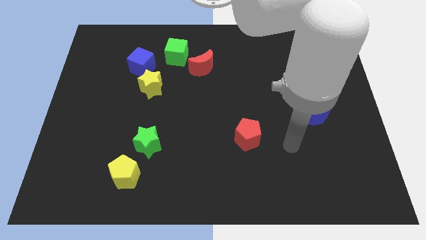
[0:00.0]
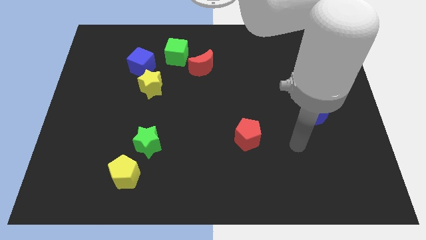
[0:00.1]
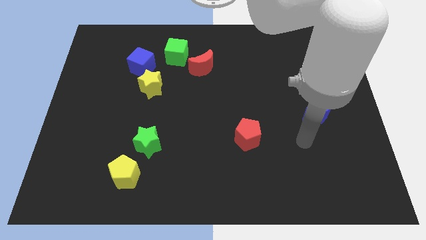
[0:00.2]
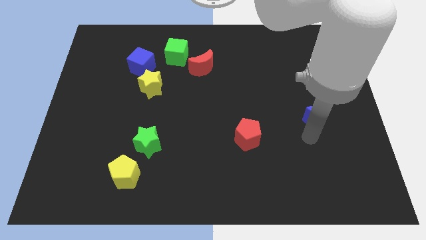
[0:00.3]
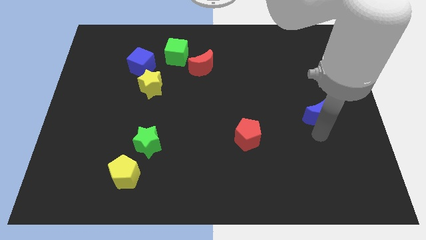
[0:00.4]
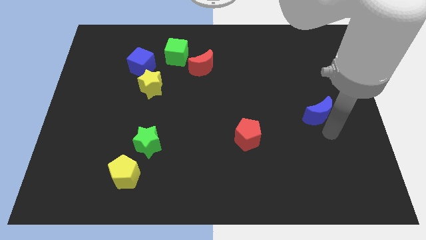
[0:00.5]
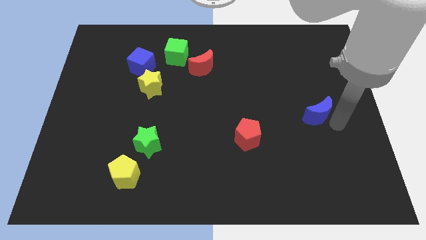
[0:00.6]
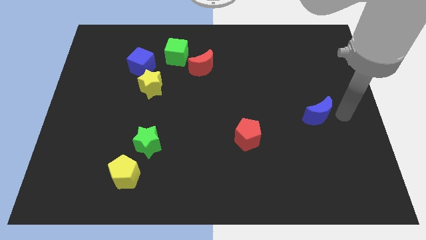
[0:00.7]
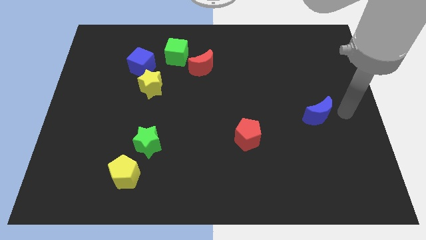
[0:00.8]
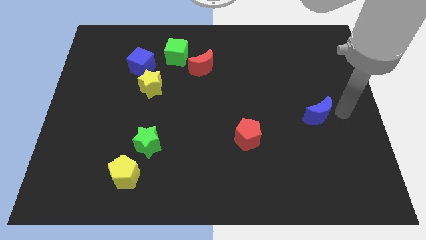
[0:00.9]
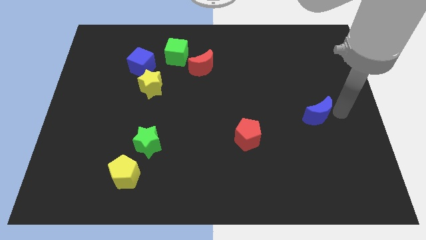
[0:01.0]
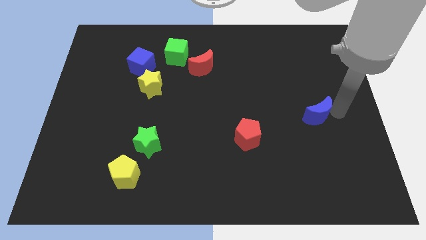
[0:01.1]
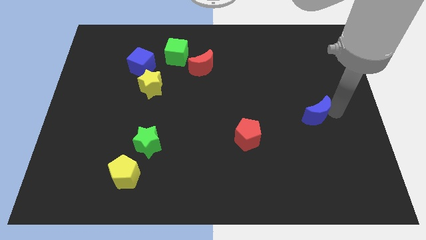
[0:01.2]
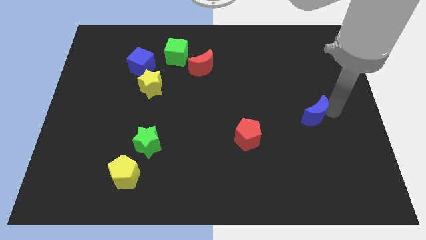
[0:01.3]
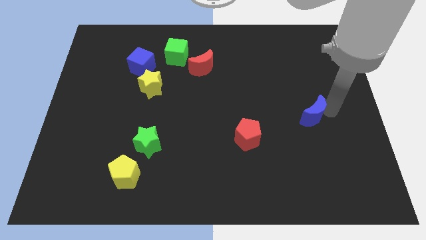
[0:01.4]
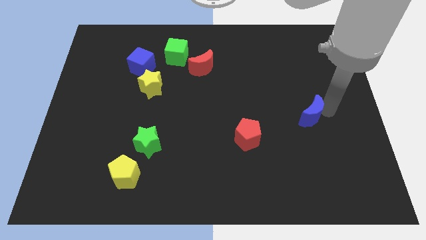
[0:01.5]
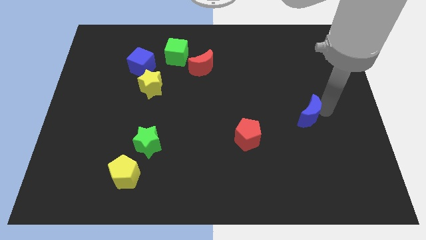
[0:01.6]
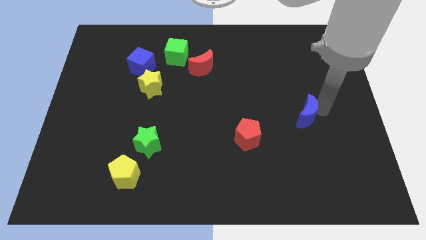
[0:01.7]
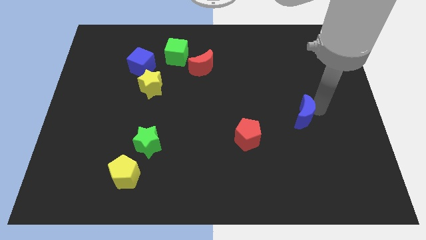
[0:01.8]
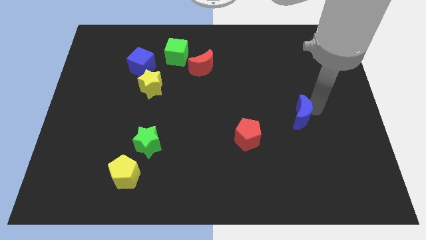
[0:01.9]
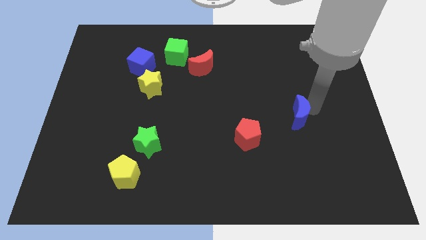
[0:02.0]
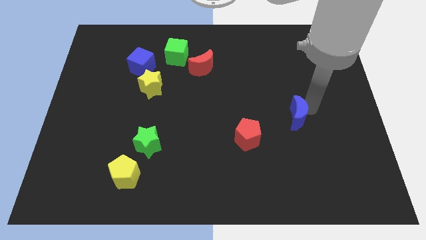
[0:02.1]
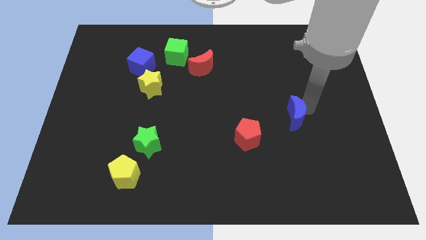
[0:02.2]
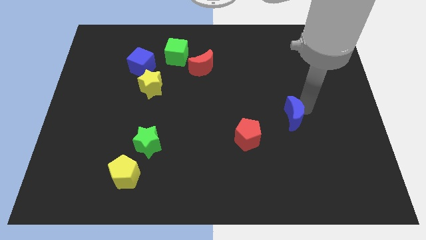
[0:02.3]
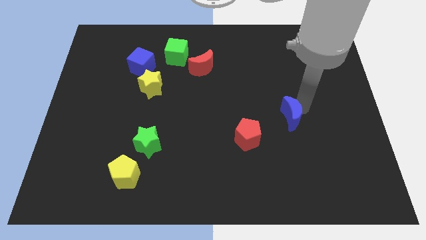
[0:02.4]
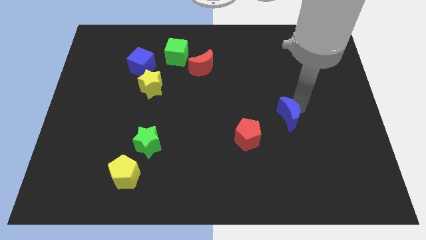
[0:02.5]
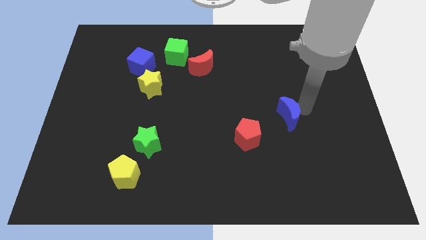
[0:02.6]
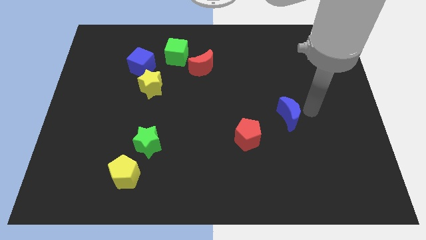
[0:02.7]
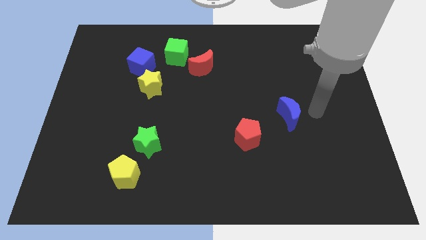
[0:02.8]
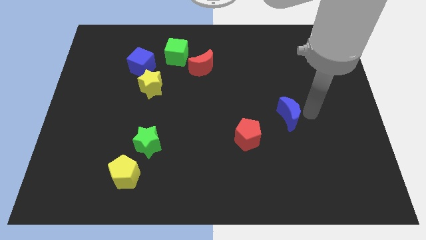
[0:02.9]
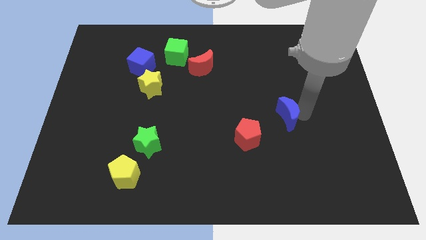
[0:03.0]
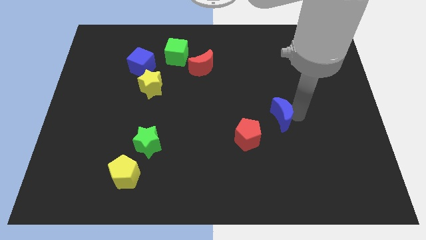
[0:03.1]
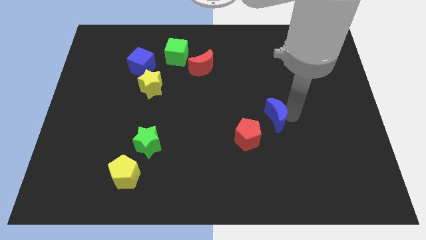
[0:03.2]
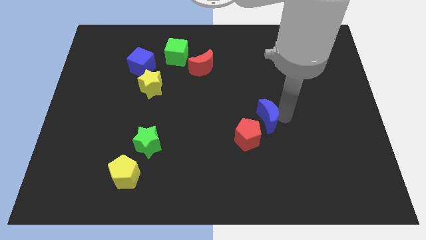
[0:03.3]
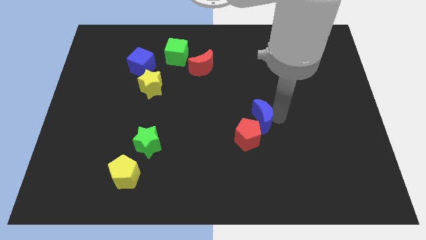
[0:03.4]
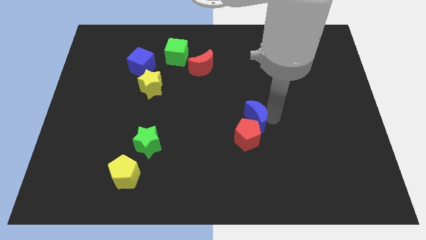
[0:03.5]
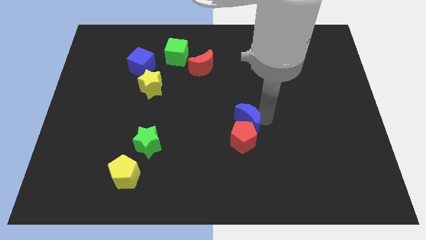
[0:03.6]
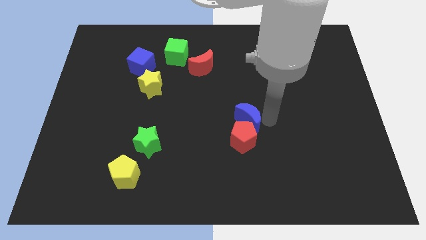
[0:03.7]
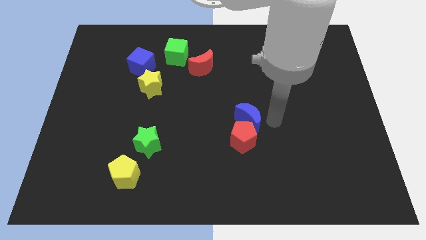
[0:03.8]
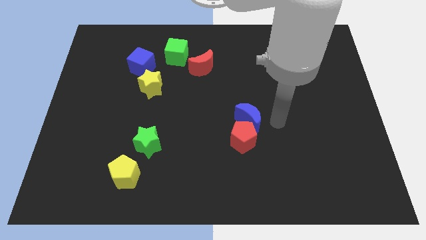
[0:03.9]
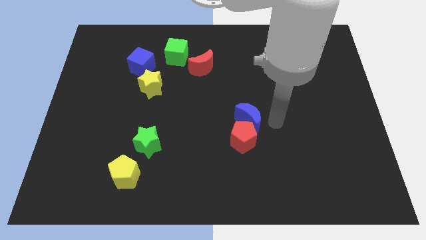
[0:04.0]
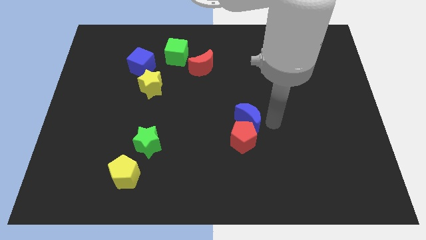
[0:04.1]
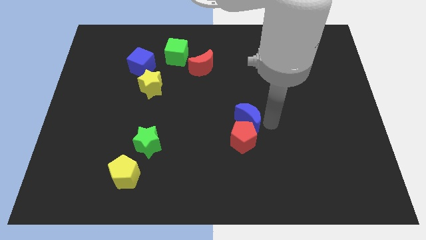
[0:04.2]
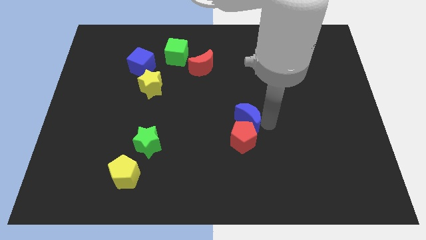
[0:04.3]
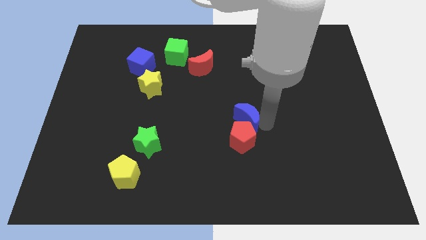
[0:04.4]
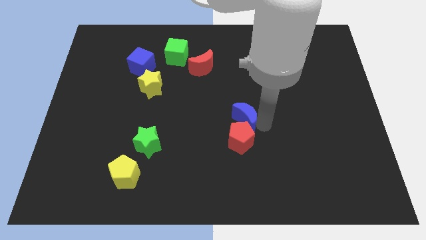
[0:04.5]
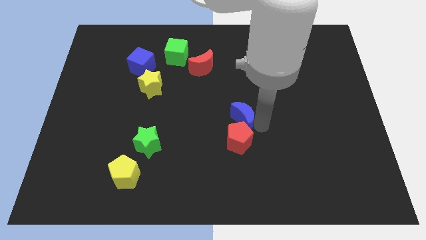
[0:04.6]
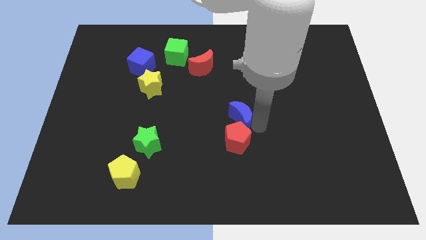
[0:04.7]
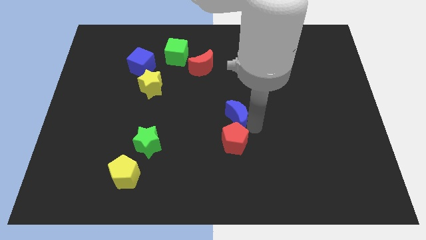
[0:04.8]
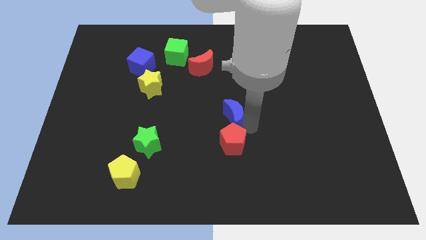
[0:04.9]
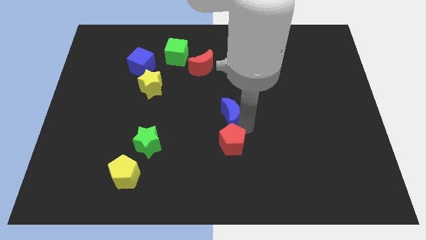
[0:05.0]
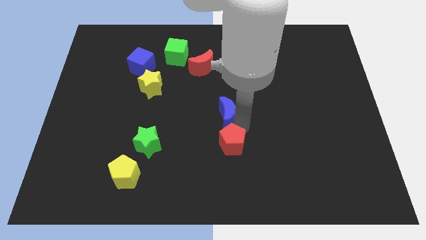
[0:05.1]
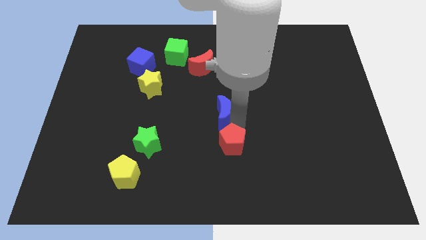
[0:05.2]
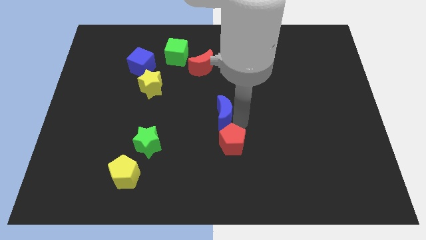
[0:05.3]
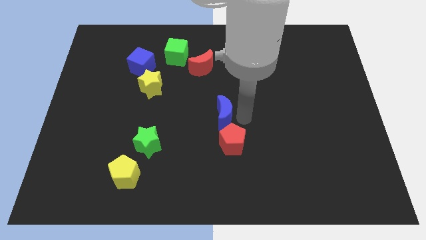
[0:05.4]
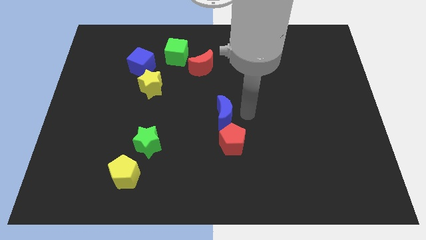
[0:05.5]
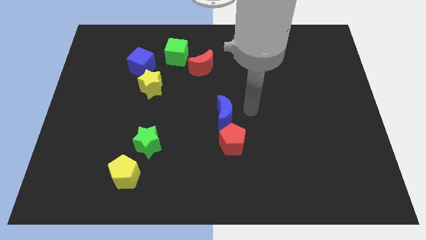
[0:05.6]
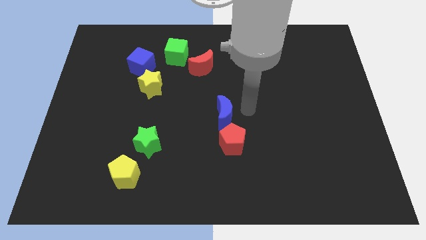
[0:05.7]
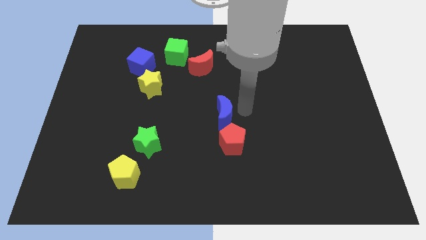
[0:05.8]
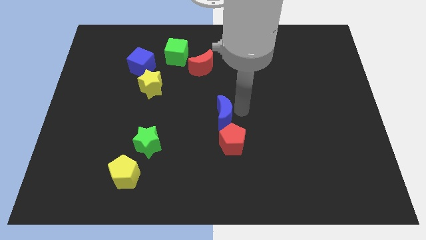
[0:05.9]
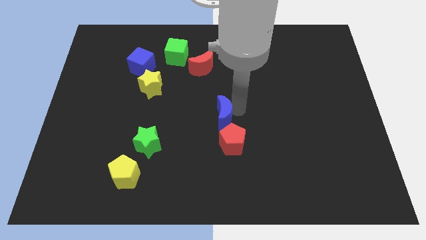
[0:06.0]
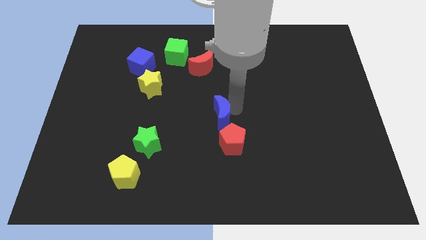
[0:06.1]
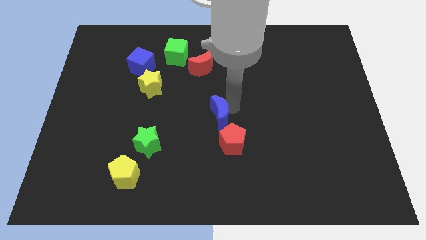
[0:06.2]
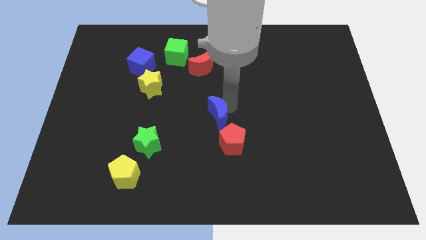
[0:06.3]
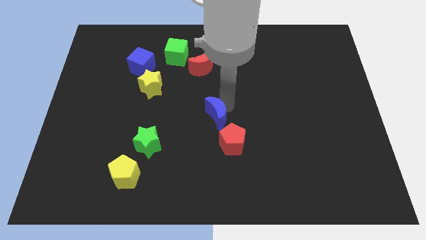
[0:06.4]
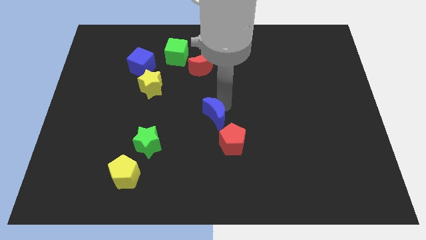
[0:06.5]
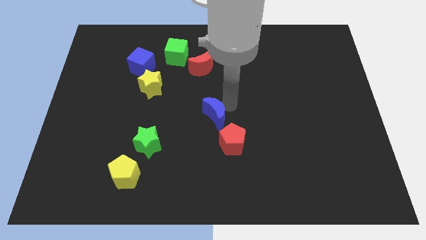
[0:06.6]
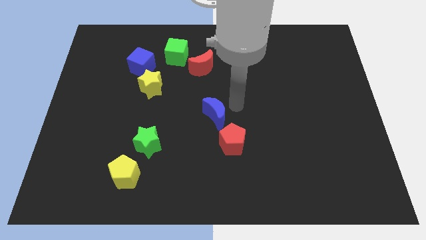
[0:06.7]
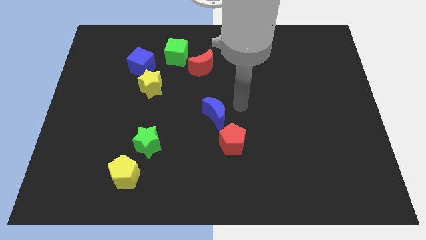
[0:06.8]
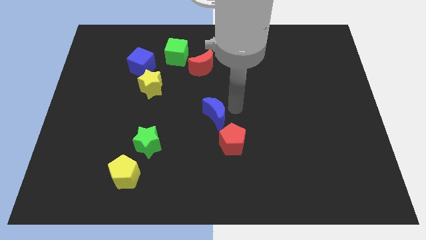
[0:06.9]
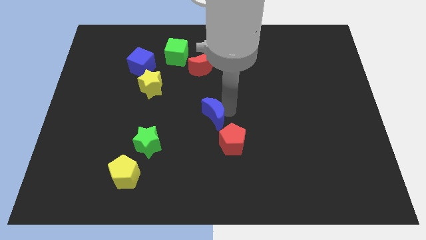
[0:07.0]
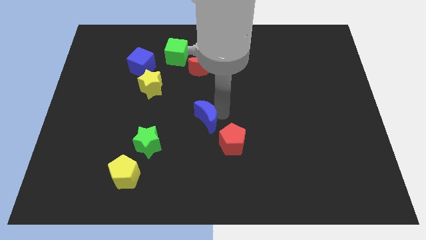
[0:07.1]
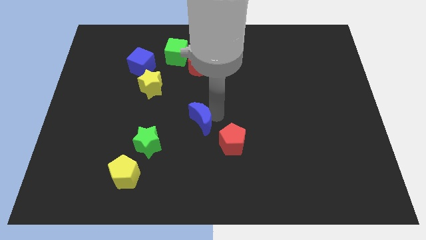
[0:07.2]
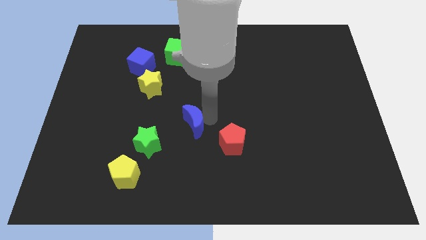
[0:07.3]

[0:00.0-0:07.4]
slide the blue moon diagonally up and to the right of the green star

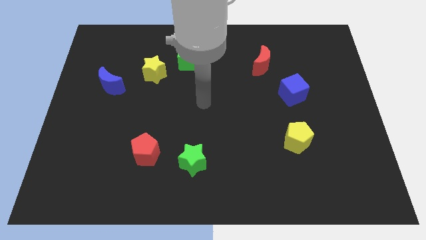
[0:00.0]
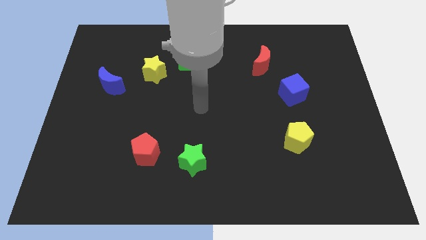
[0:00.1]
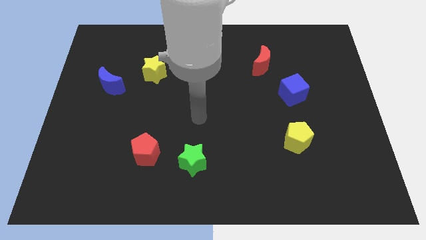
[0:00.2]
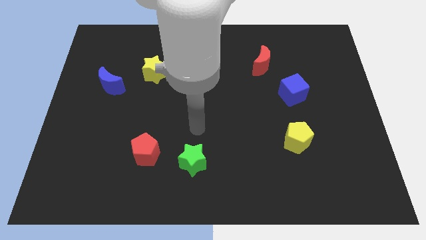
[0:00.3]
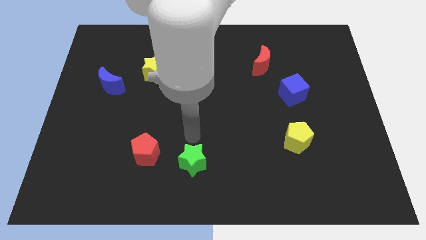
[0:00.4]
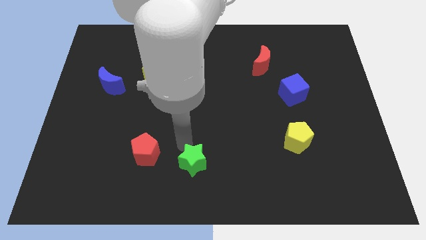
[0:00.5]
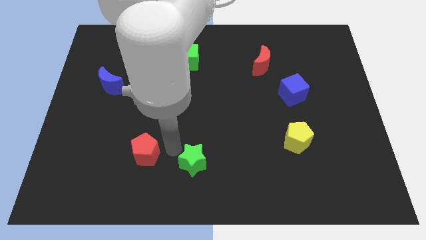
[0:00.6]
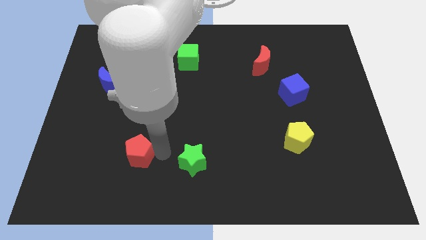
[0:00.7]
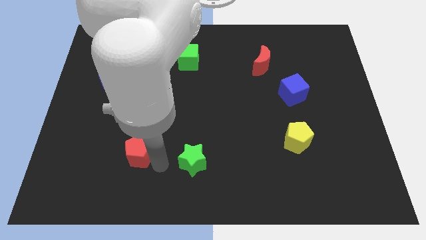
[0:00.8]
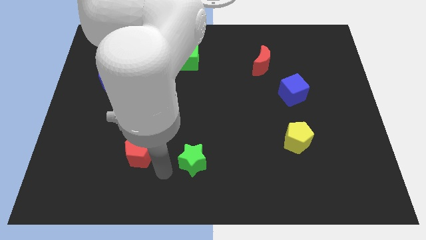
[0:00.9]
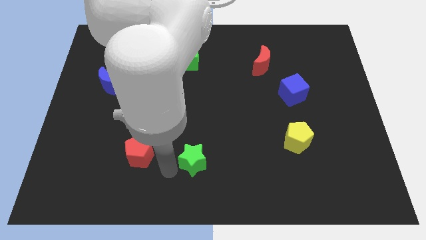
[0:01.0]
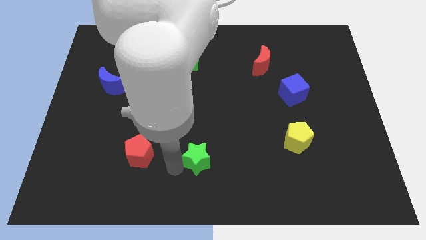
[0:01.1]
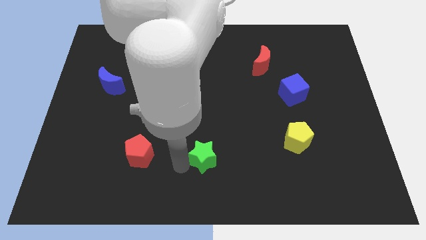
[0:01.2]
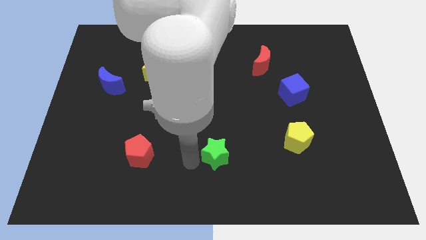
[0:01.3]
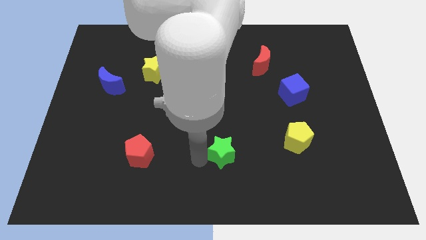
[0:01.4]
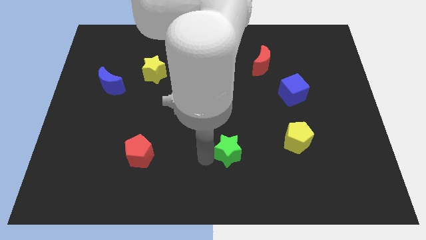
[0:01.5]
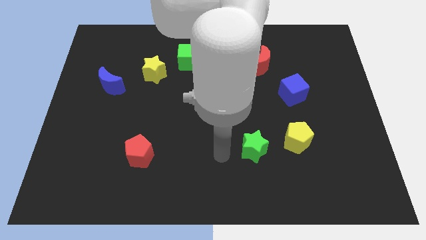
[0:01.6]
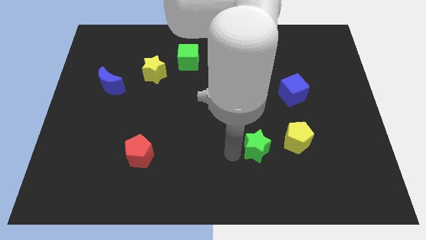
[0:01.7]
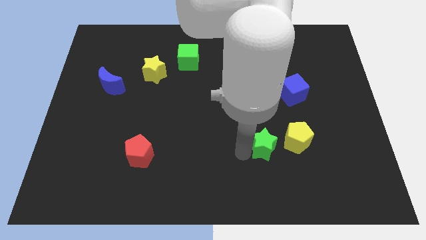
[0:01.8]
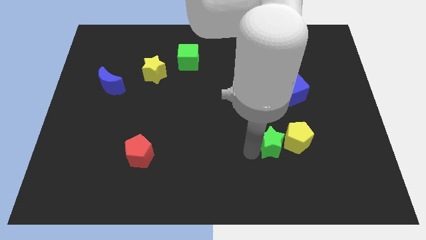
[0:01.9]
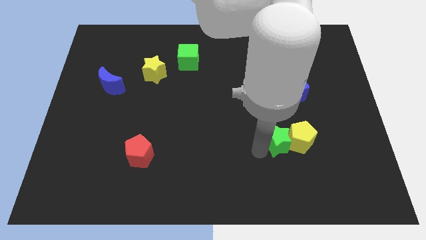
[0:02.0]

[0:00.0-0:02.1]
slide the green star to the top left of the yellow pentagon
